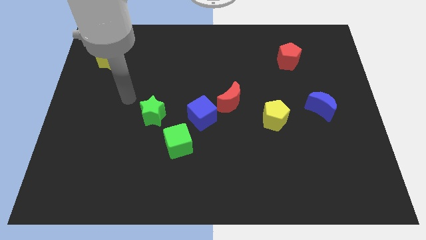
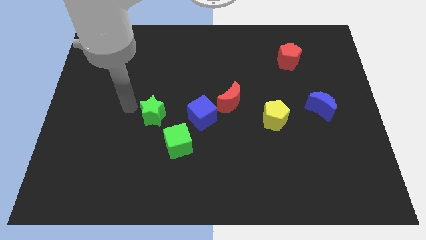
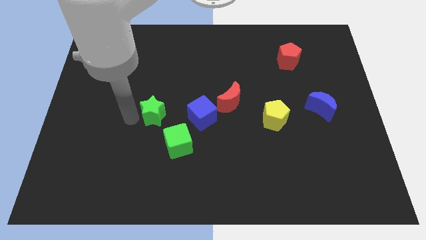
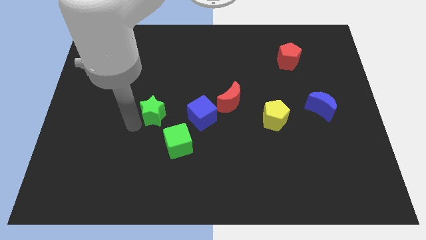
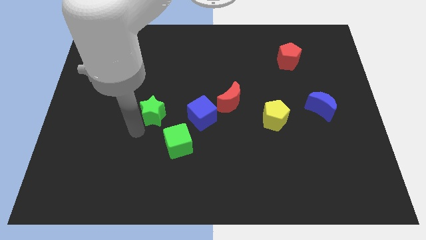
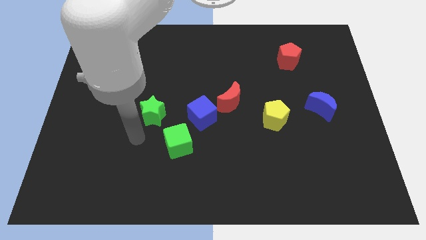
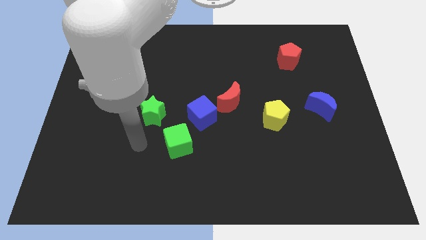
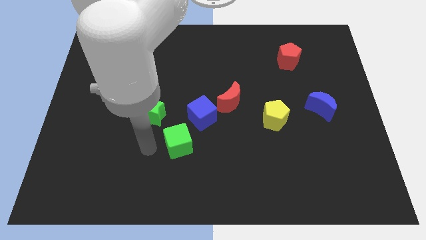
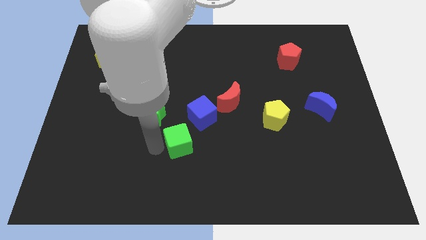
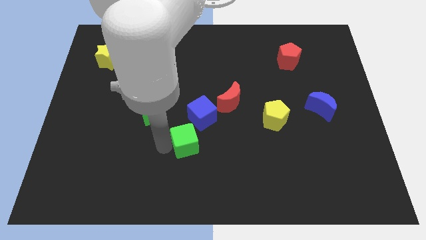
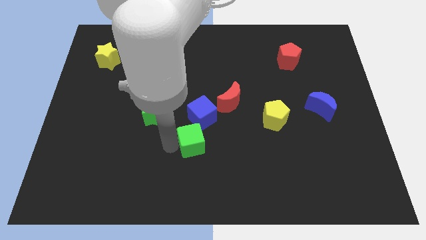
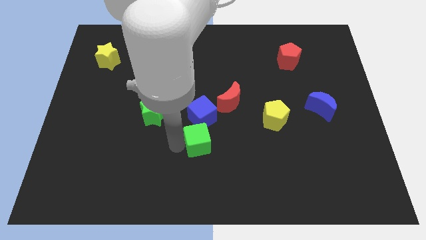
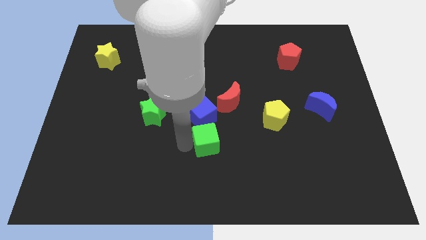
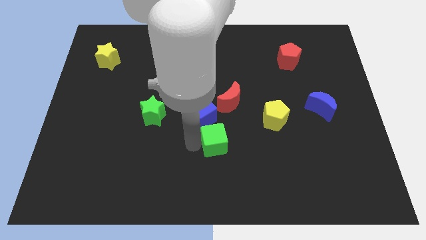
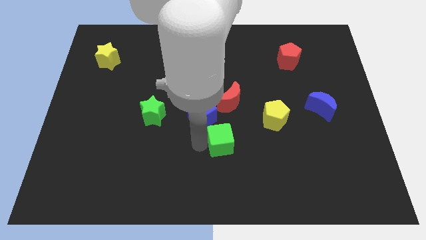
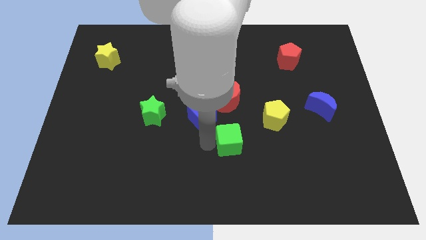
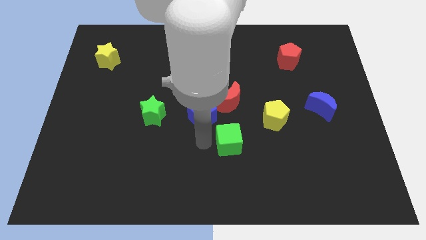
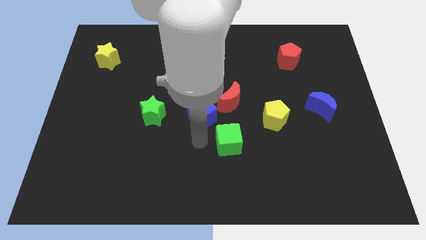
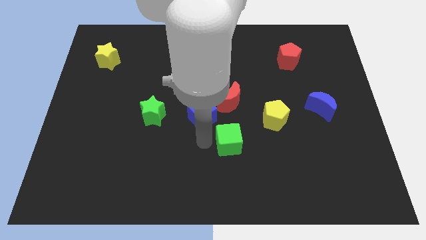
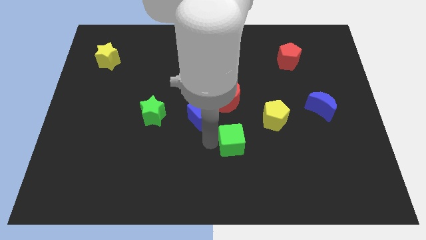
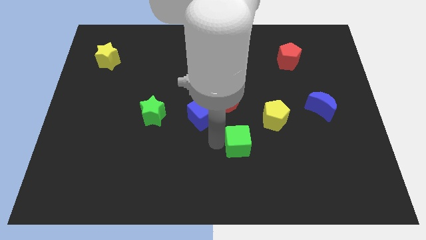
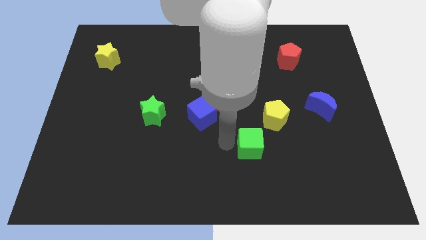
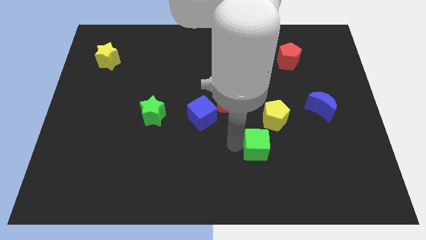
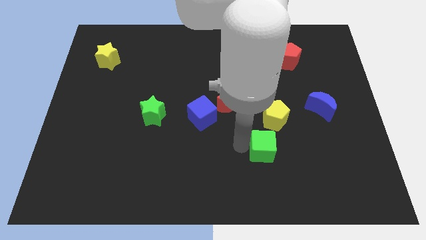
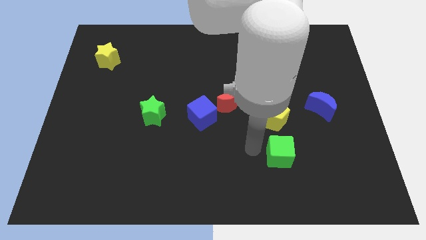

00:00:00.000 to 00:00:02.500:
move the green cube to the right

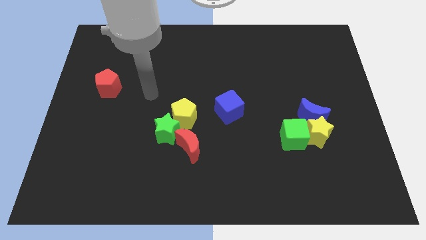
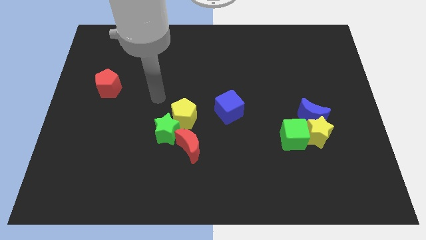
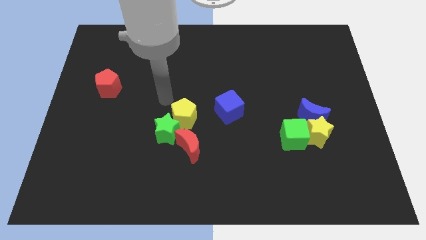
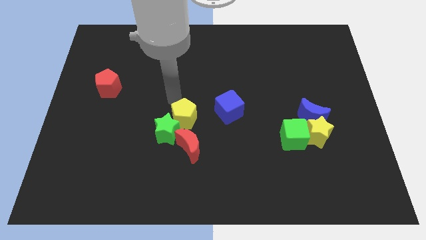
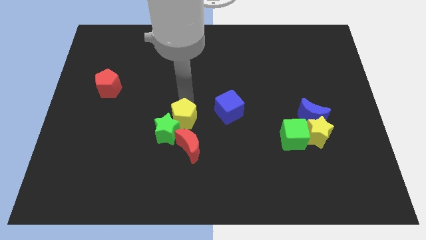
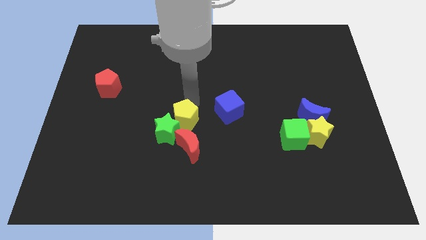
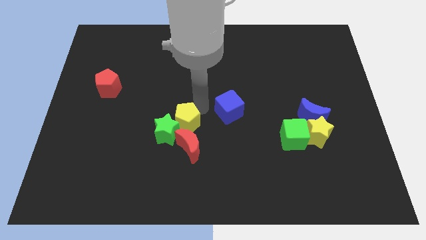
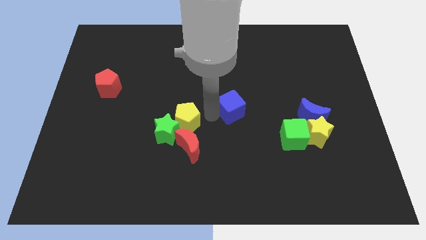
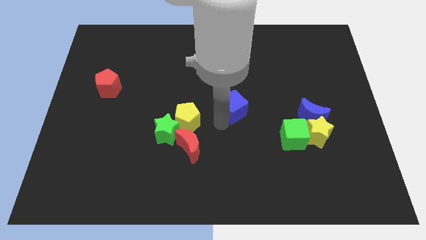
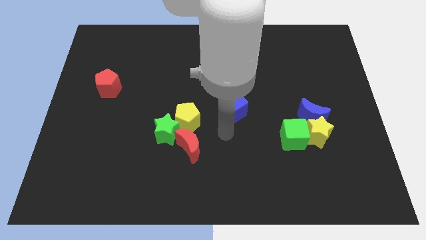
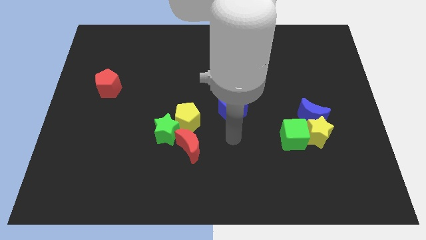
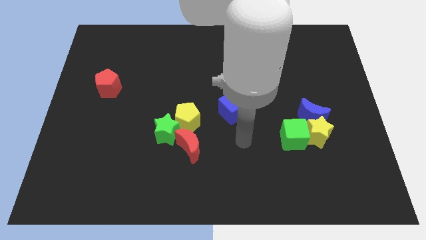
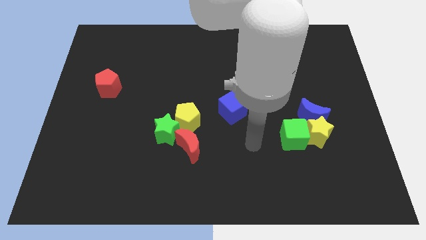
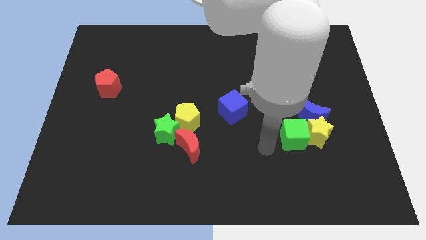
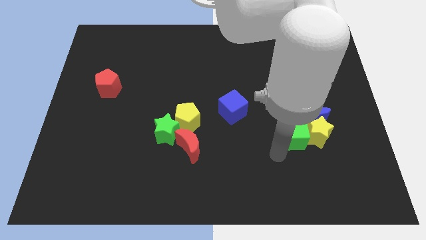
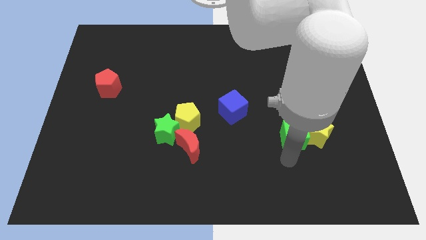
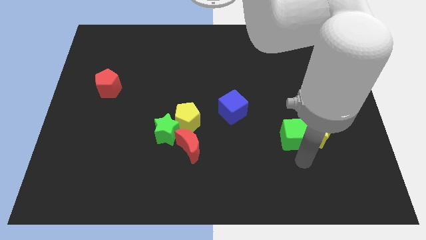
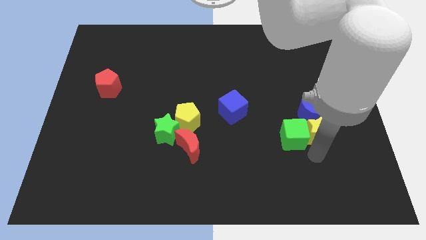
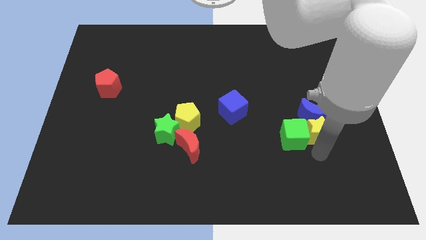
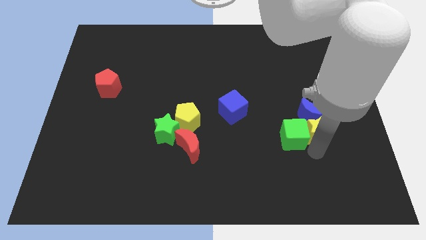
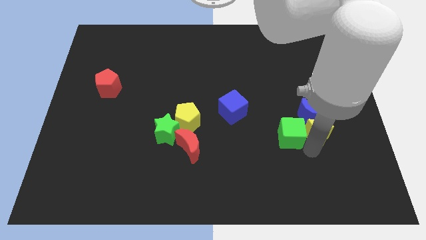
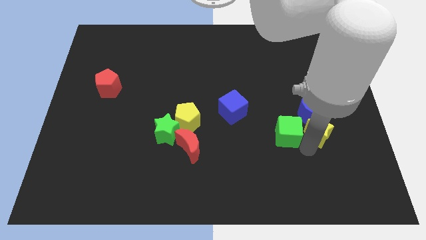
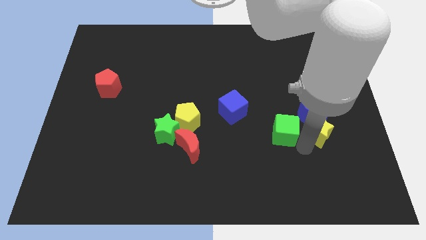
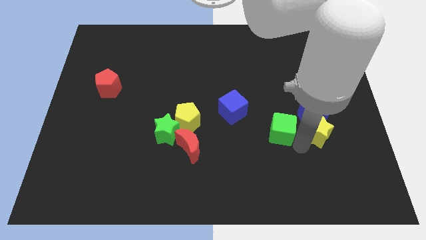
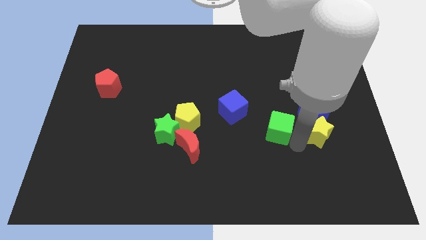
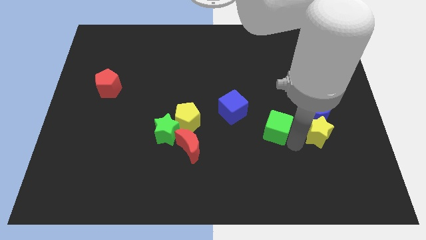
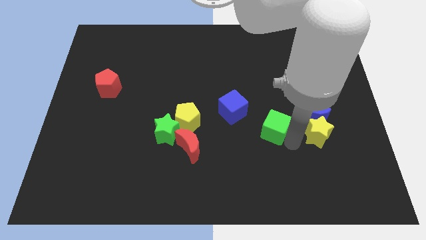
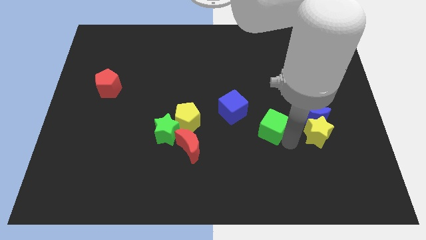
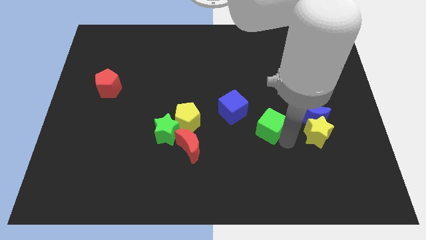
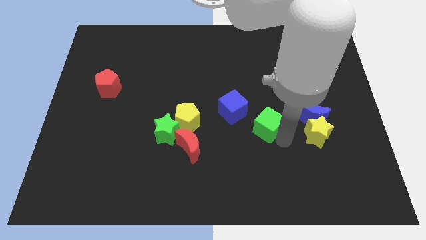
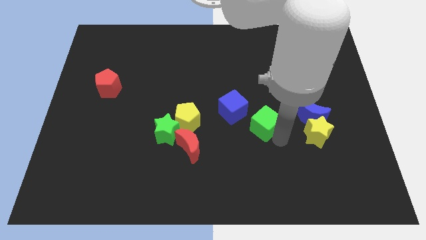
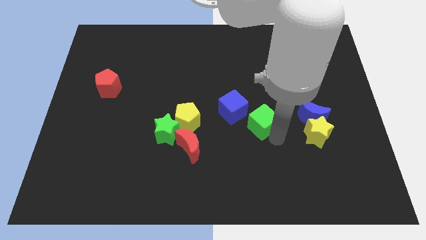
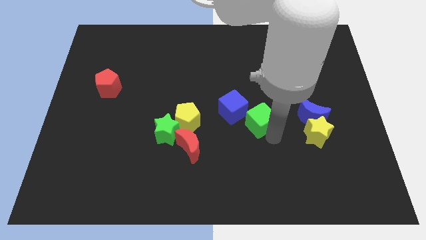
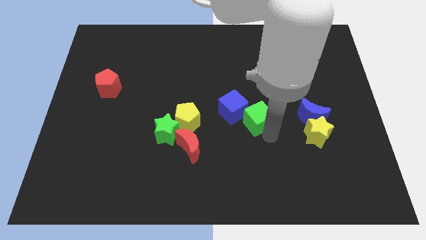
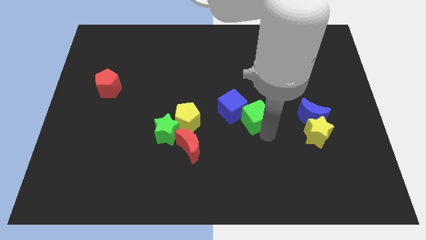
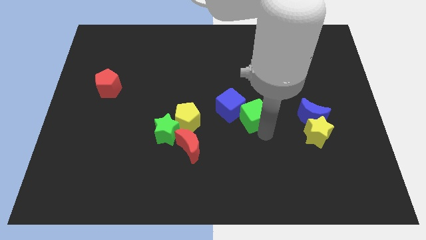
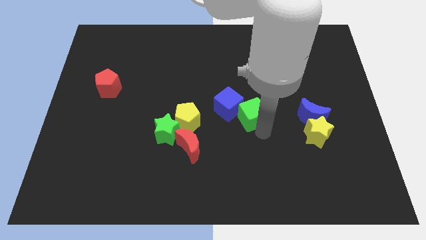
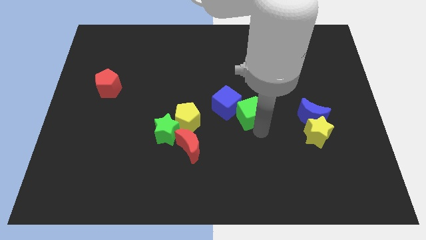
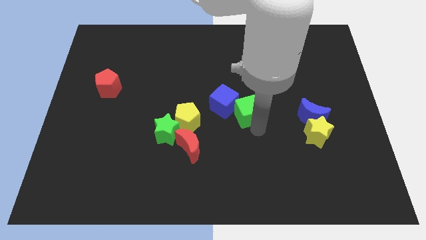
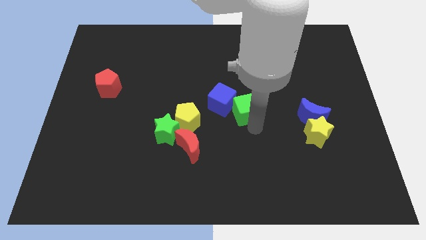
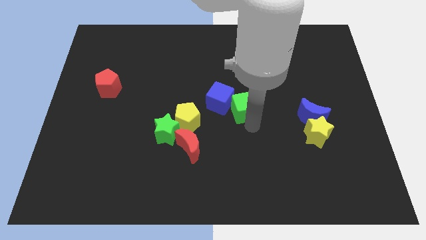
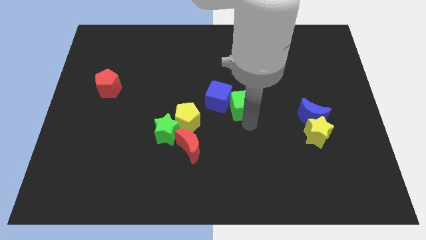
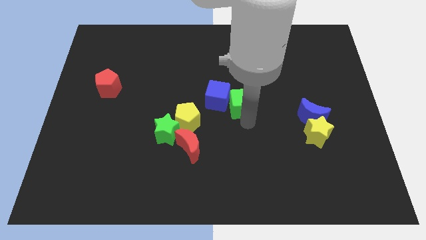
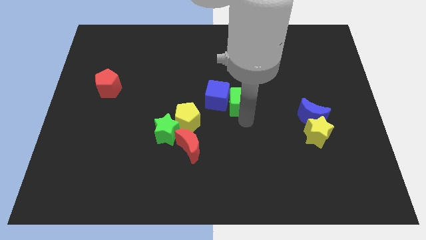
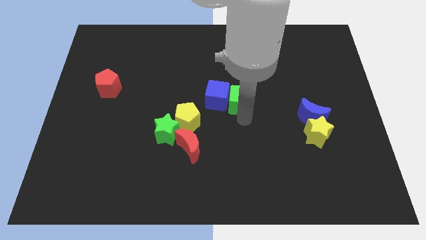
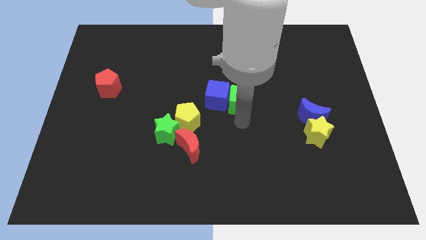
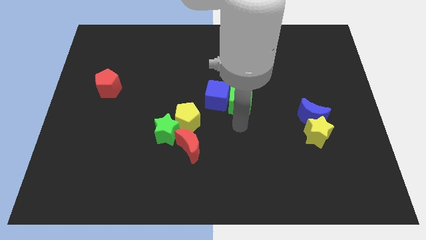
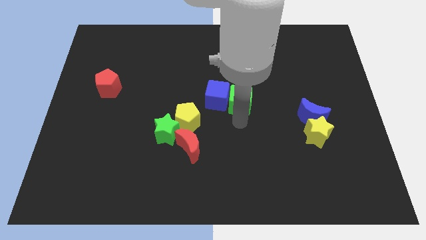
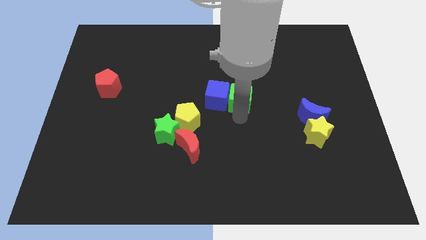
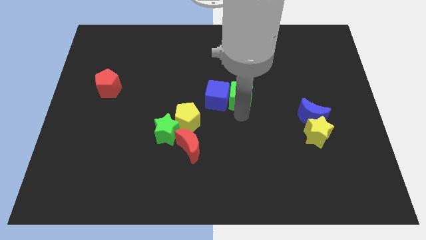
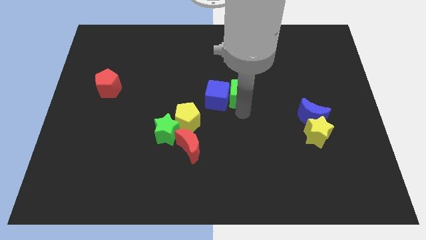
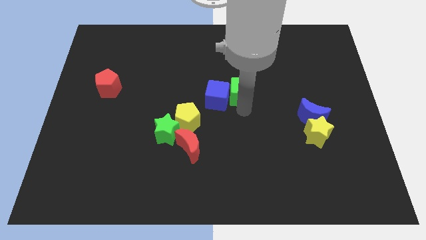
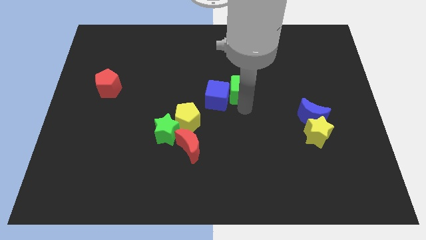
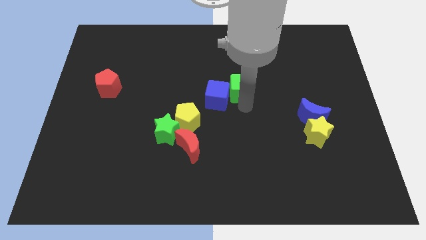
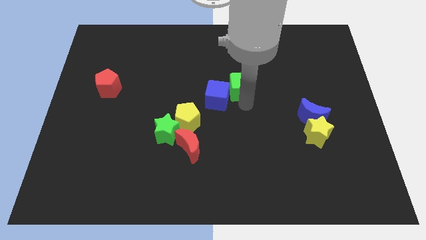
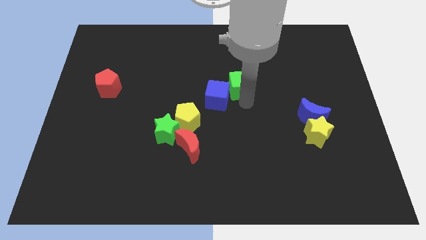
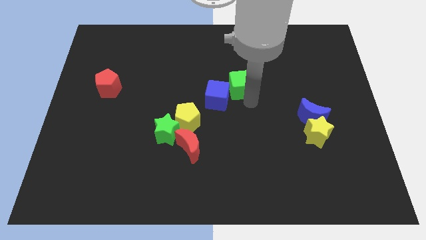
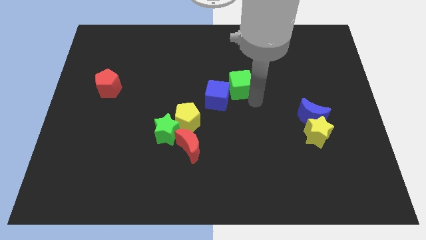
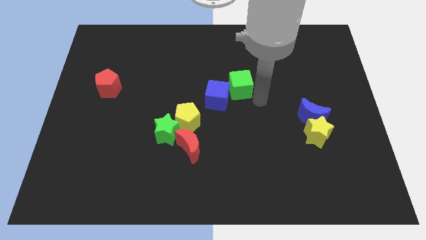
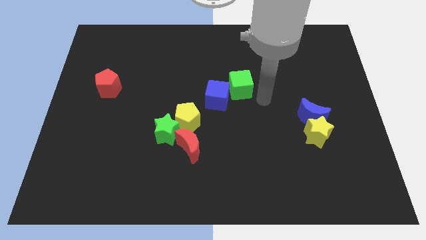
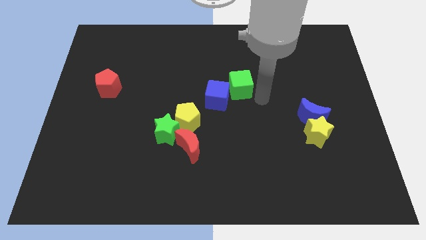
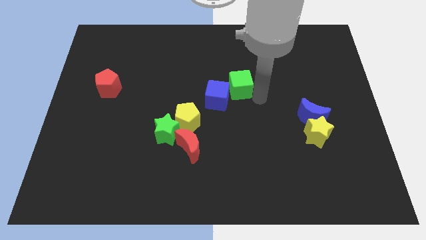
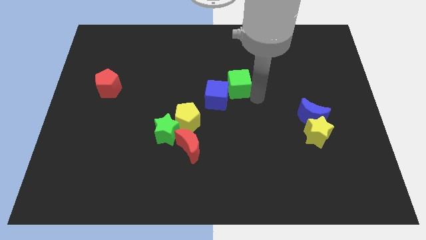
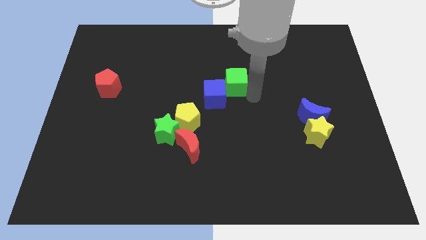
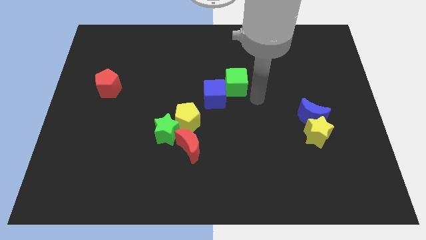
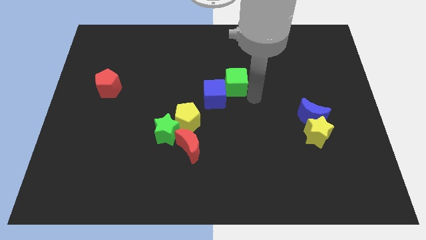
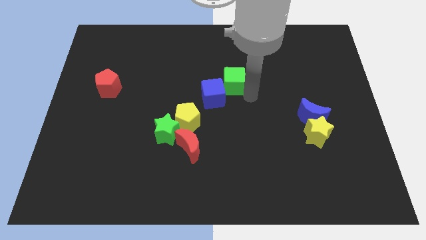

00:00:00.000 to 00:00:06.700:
slide the green cube diagonally upwards and to the left
